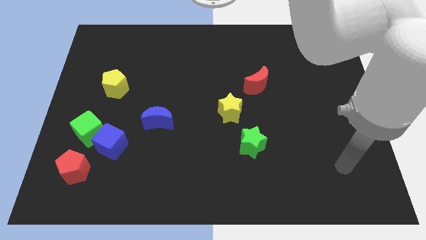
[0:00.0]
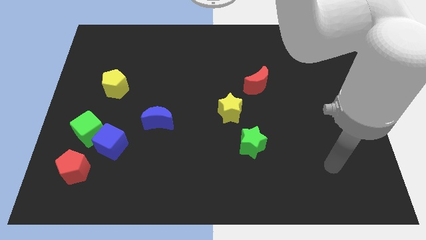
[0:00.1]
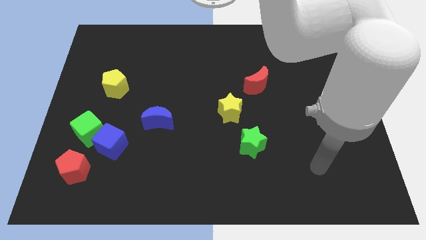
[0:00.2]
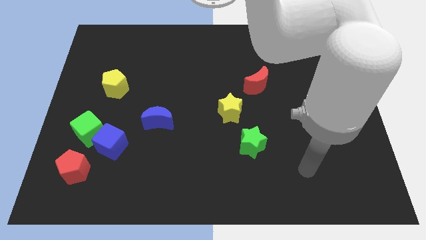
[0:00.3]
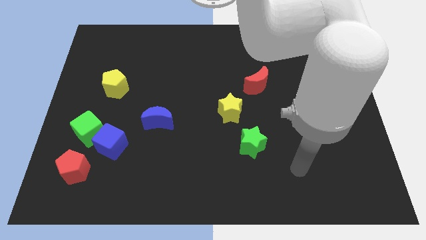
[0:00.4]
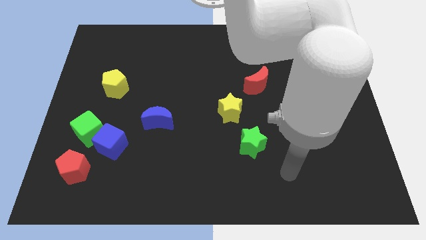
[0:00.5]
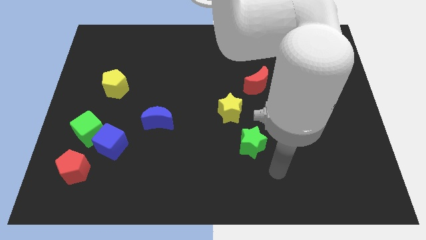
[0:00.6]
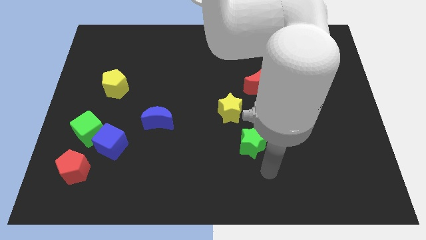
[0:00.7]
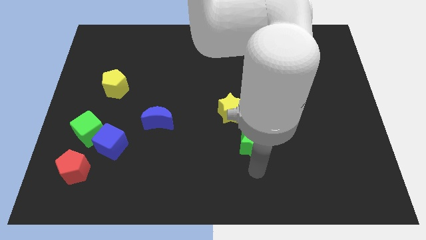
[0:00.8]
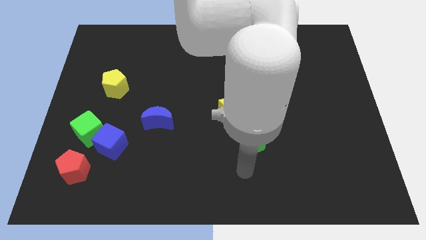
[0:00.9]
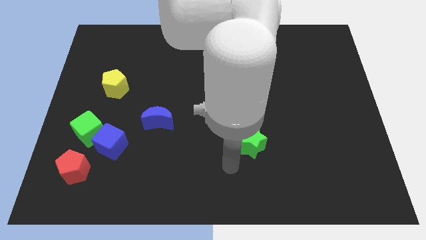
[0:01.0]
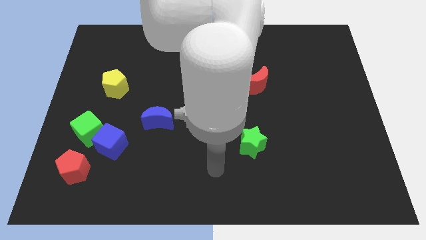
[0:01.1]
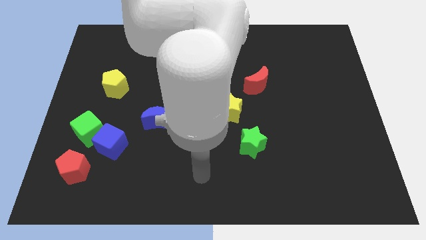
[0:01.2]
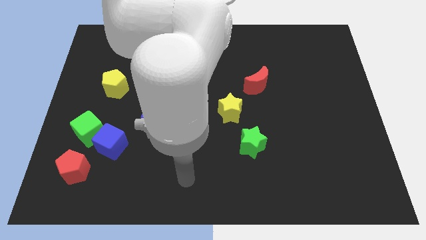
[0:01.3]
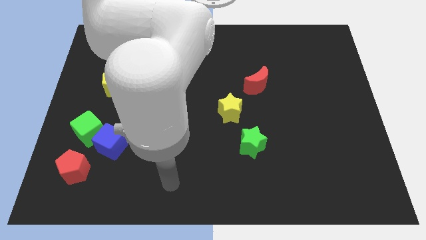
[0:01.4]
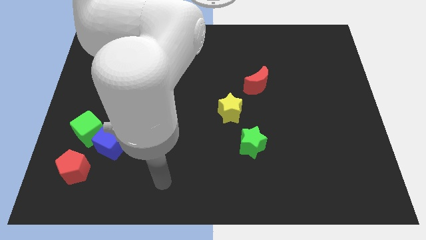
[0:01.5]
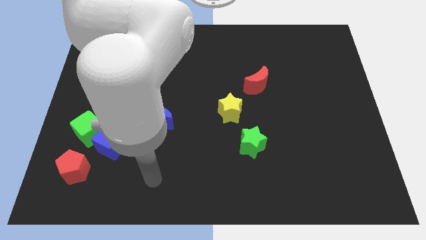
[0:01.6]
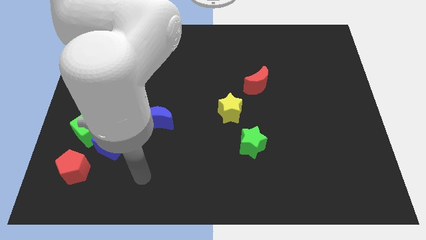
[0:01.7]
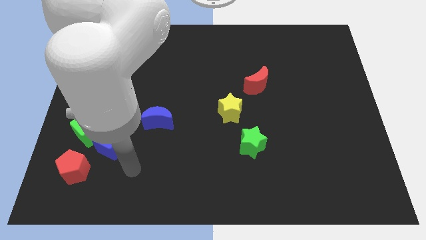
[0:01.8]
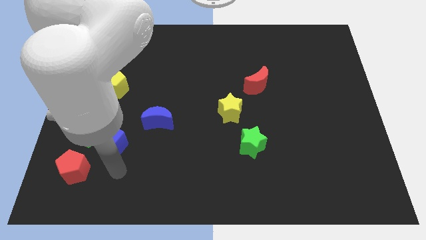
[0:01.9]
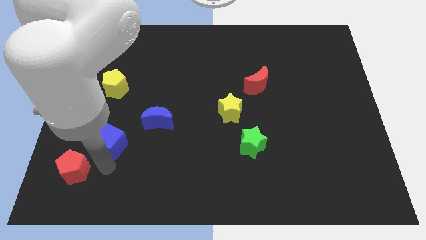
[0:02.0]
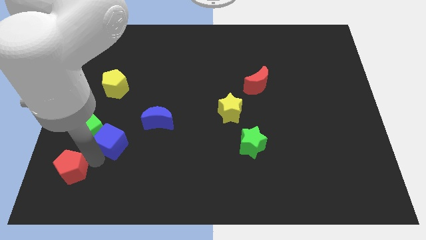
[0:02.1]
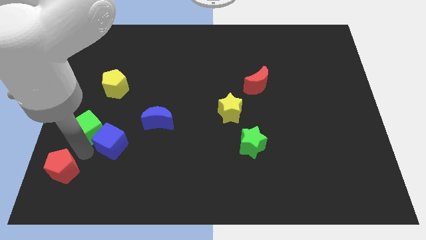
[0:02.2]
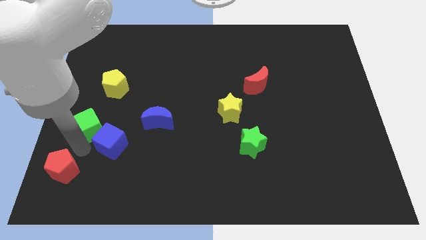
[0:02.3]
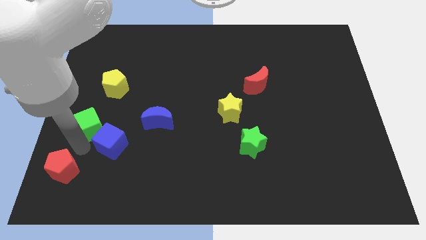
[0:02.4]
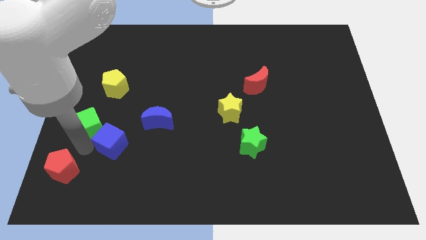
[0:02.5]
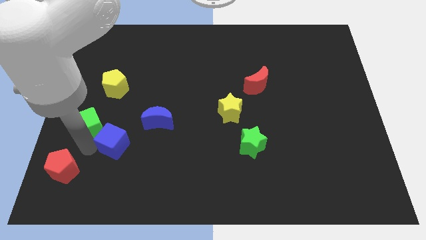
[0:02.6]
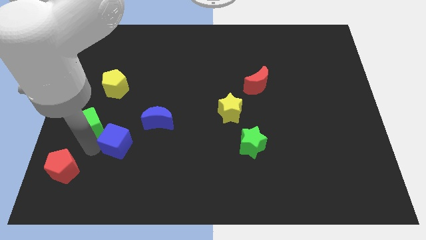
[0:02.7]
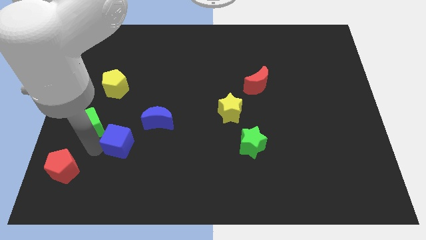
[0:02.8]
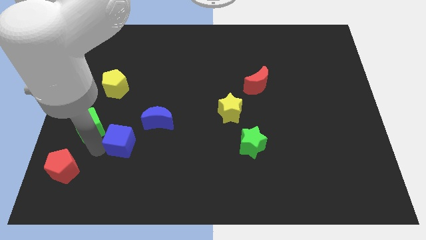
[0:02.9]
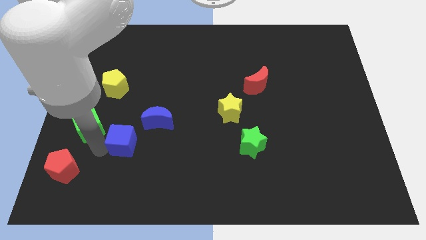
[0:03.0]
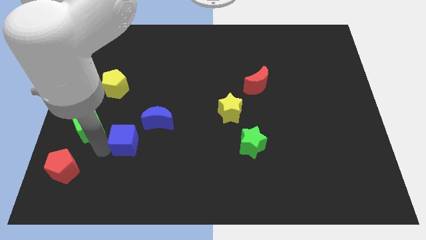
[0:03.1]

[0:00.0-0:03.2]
separate the blue cube from the green cube and red pentagon

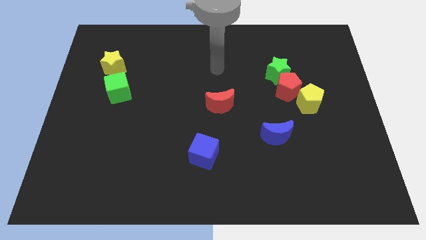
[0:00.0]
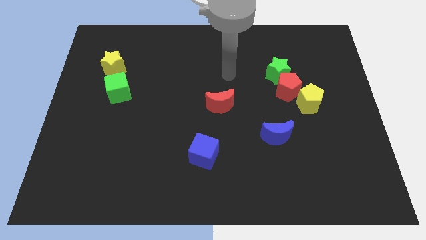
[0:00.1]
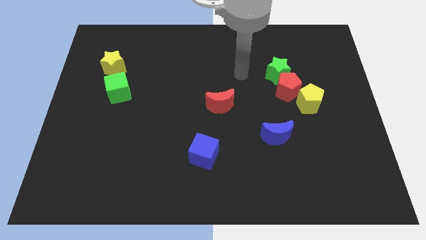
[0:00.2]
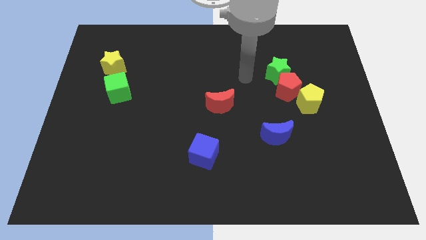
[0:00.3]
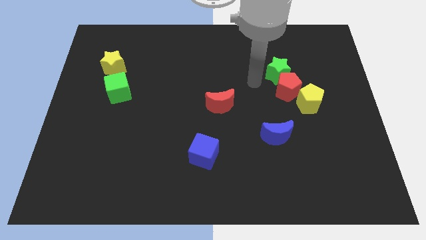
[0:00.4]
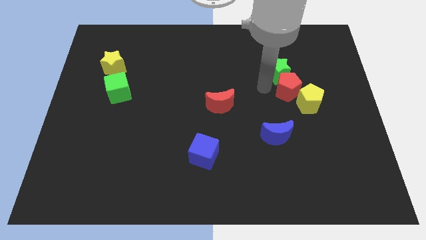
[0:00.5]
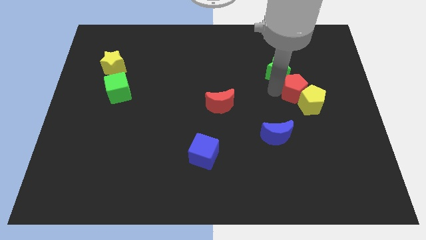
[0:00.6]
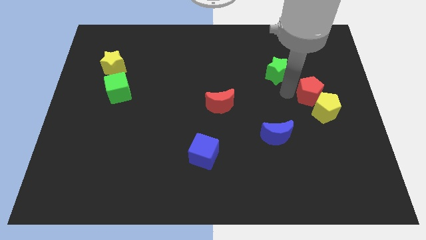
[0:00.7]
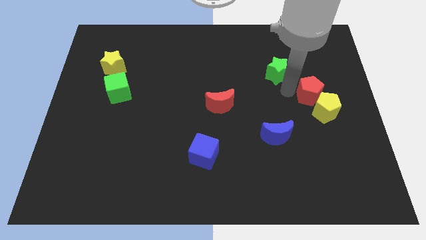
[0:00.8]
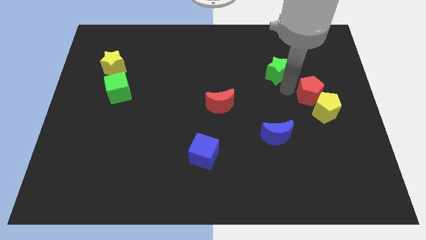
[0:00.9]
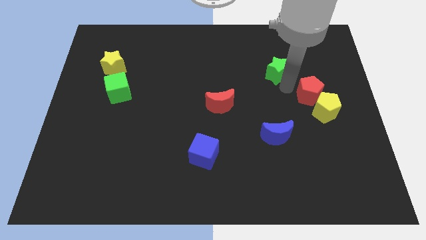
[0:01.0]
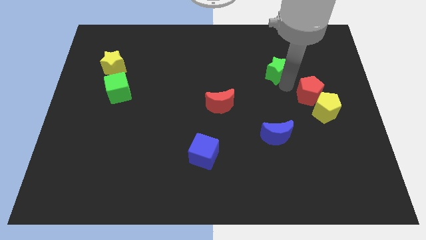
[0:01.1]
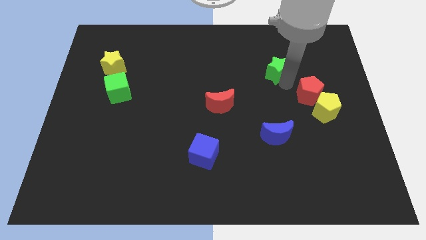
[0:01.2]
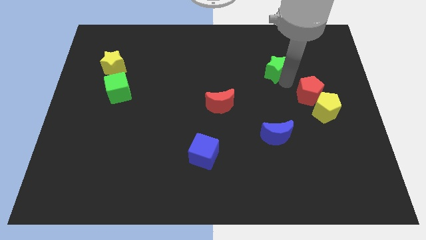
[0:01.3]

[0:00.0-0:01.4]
separate the green star from the red pentagon

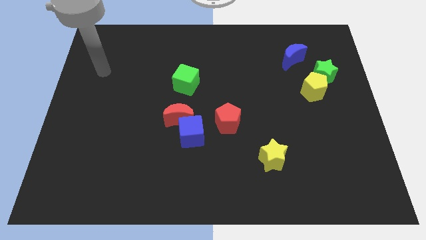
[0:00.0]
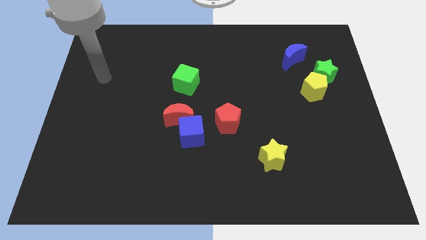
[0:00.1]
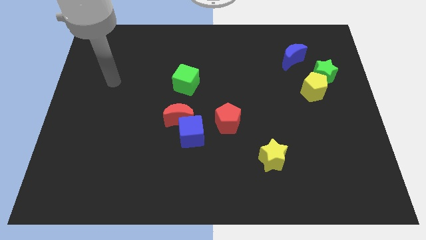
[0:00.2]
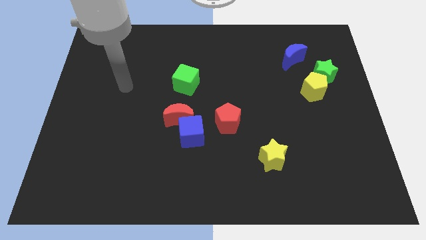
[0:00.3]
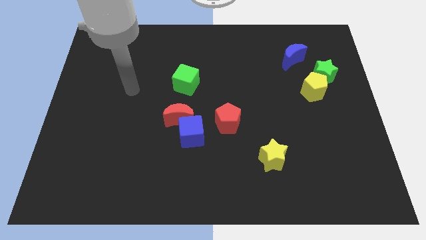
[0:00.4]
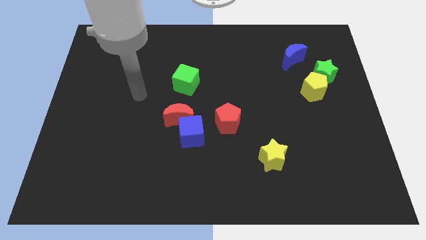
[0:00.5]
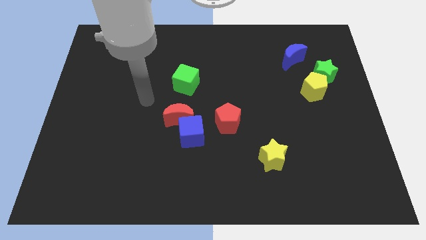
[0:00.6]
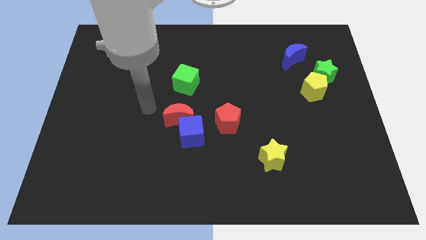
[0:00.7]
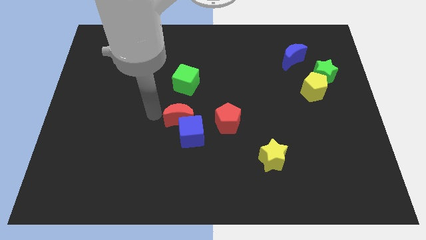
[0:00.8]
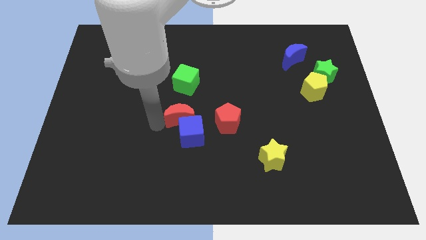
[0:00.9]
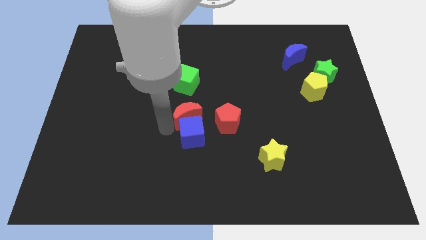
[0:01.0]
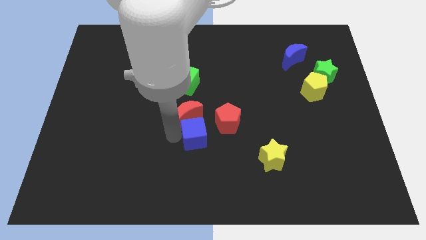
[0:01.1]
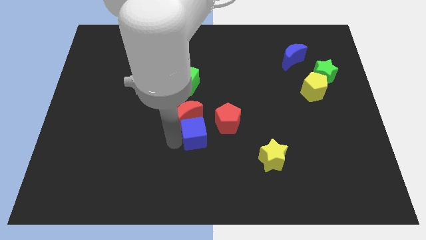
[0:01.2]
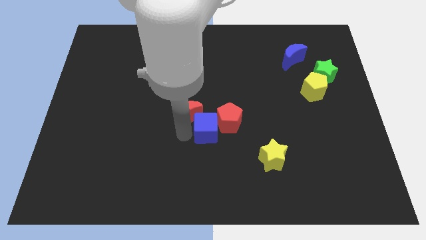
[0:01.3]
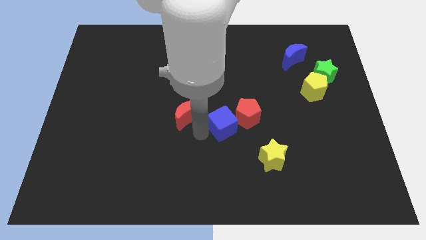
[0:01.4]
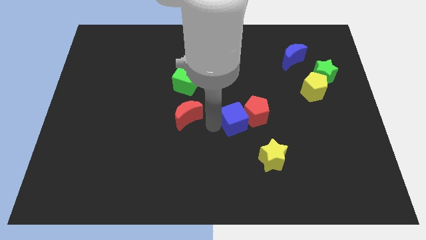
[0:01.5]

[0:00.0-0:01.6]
pull the red moon apart from the blue cube

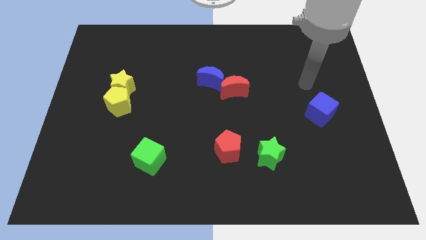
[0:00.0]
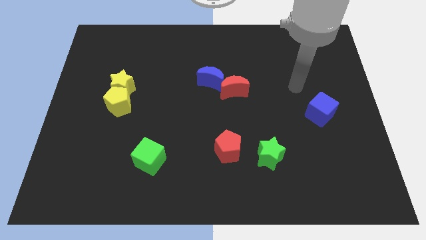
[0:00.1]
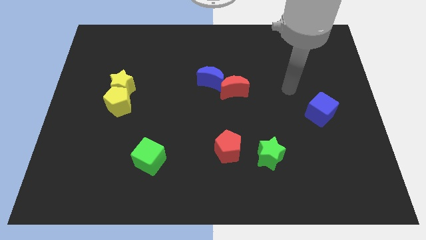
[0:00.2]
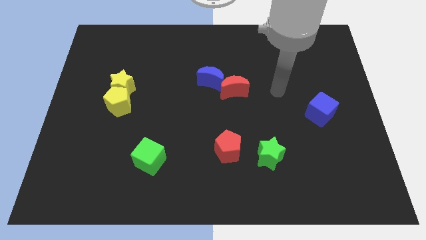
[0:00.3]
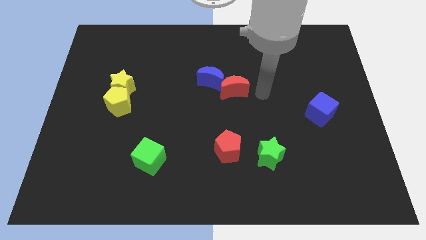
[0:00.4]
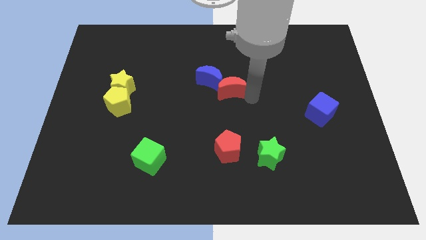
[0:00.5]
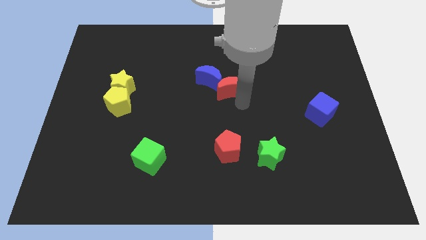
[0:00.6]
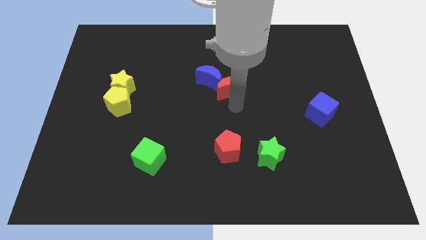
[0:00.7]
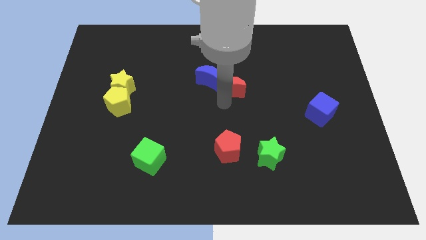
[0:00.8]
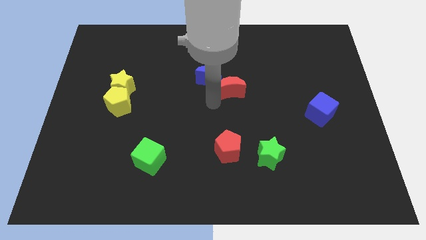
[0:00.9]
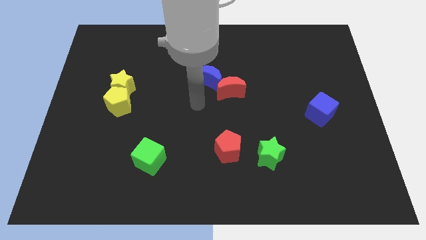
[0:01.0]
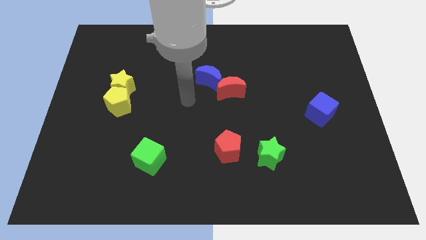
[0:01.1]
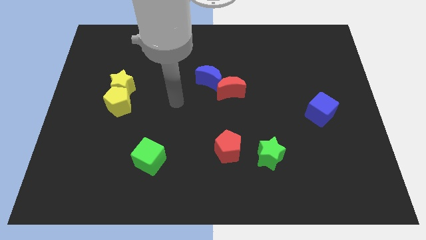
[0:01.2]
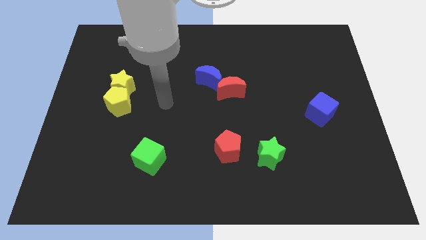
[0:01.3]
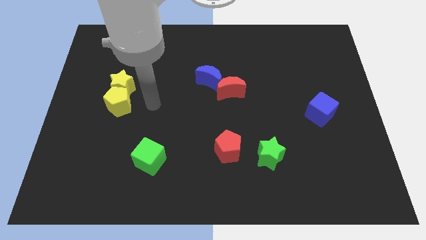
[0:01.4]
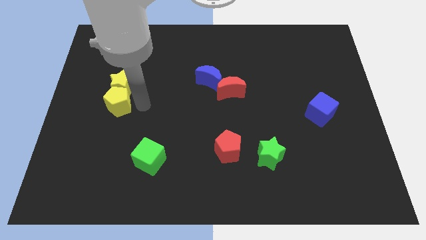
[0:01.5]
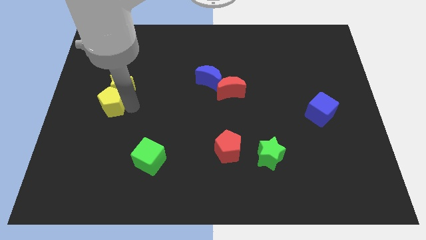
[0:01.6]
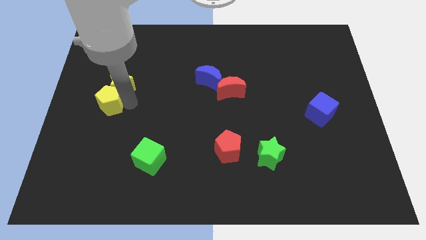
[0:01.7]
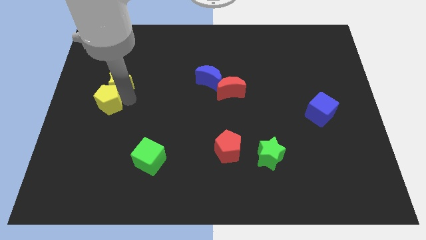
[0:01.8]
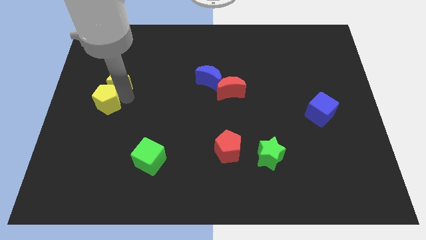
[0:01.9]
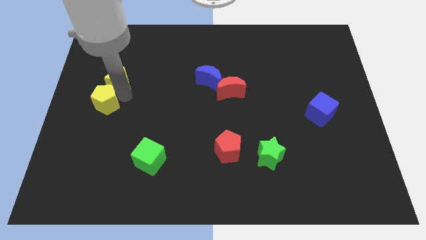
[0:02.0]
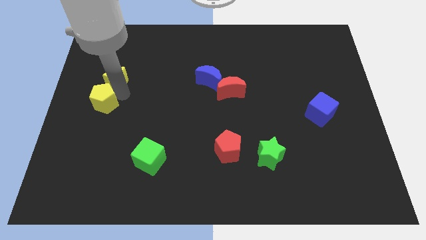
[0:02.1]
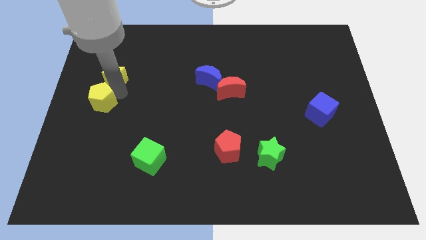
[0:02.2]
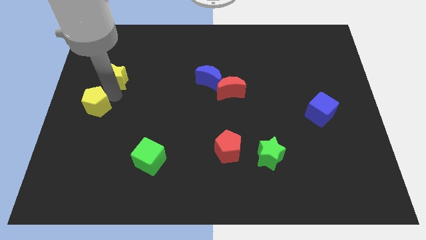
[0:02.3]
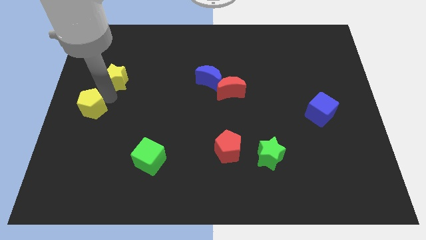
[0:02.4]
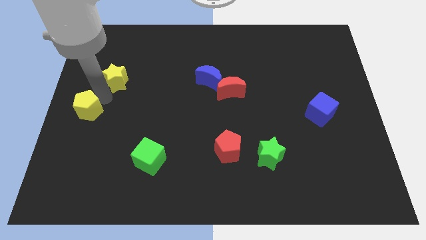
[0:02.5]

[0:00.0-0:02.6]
pull the yellow star apart from the yellow pentagon

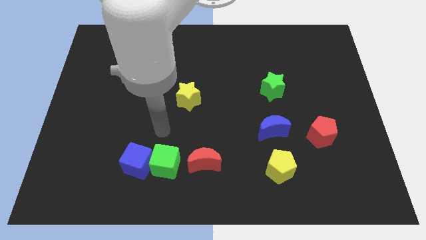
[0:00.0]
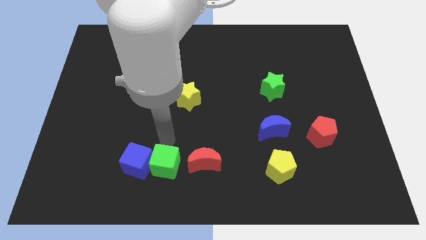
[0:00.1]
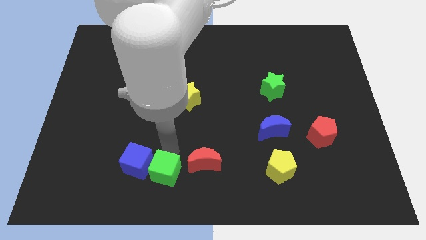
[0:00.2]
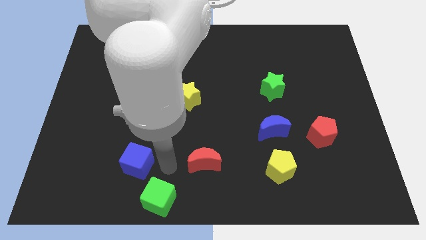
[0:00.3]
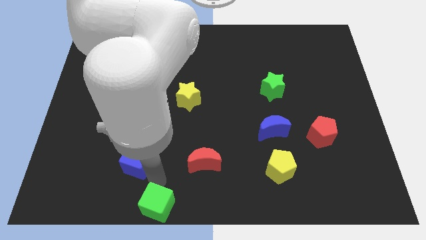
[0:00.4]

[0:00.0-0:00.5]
separate the blue cube from the green cube

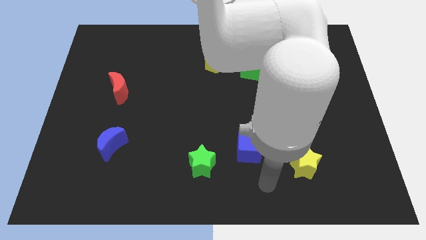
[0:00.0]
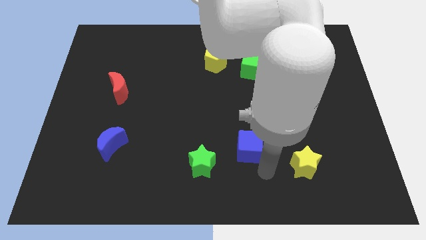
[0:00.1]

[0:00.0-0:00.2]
move the green cube away from the yellow pentagon

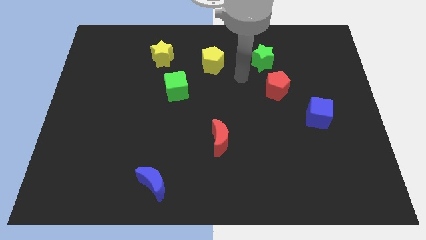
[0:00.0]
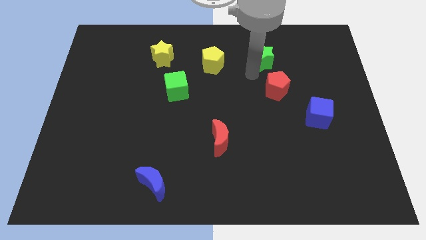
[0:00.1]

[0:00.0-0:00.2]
pull the red pentagon apart from the green star
